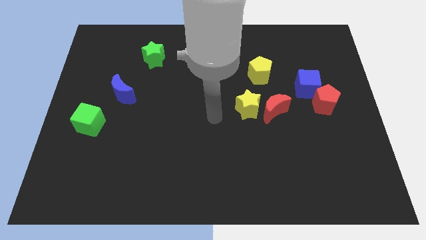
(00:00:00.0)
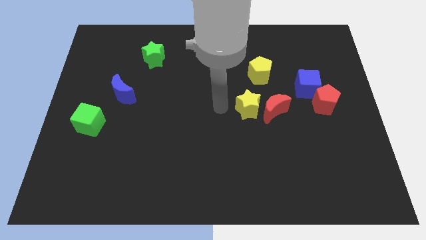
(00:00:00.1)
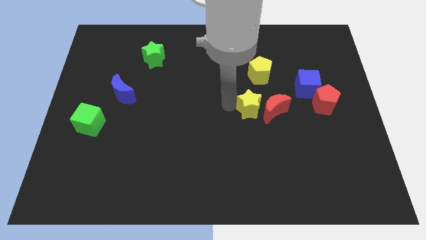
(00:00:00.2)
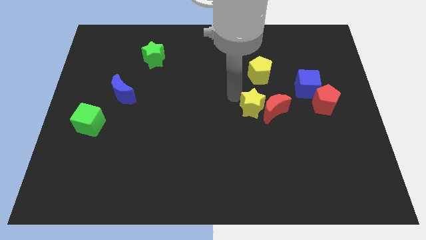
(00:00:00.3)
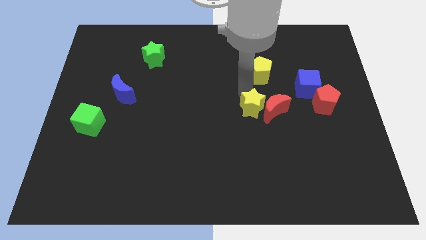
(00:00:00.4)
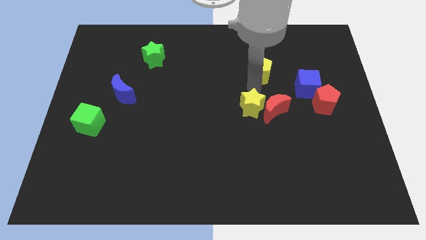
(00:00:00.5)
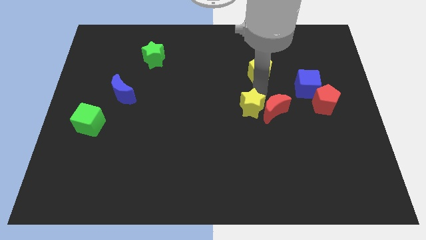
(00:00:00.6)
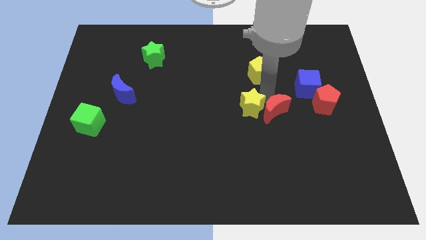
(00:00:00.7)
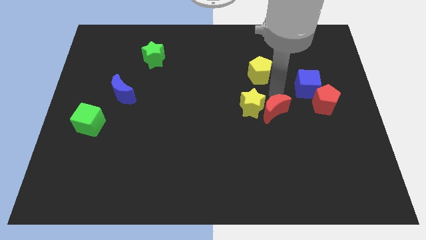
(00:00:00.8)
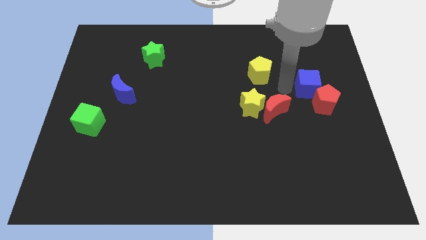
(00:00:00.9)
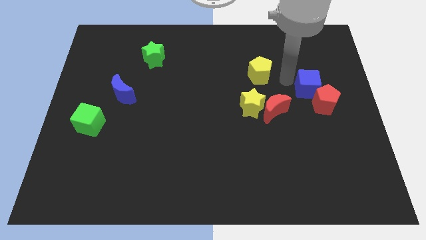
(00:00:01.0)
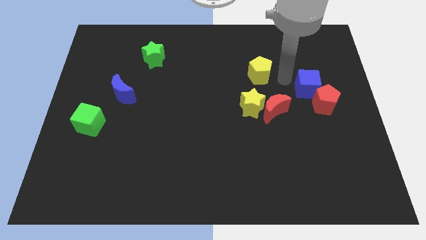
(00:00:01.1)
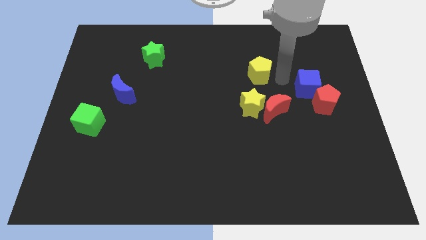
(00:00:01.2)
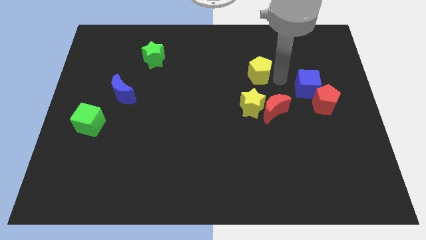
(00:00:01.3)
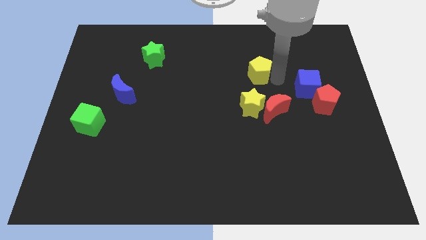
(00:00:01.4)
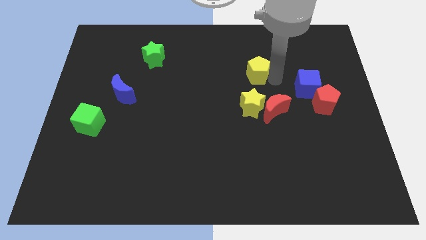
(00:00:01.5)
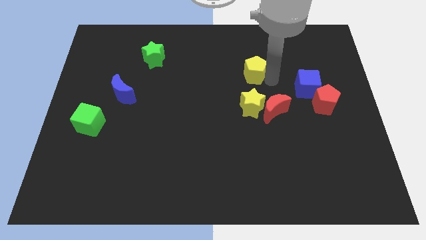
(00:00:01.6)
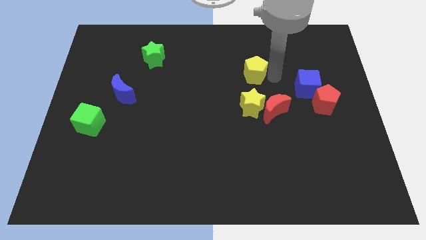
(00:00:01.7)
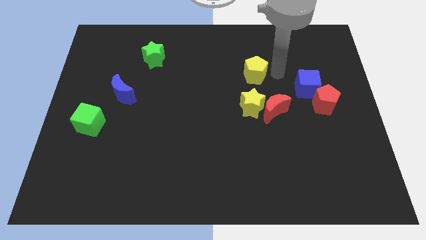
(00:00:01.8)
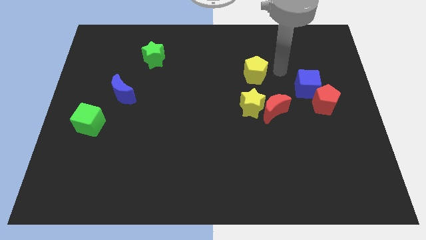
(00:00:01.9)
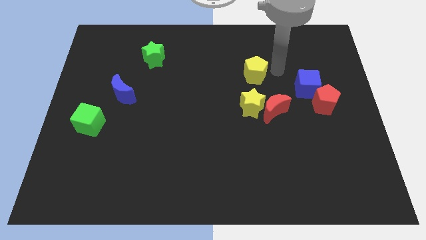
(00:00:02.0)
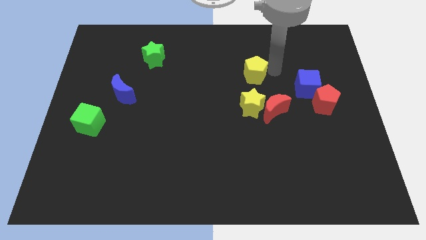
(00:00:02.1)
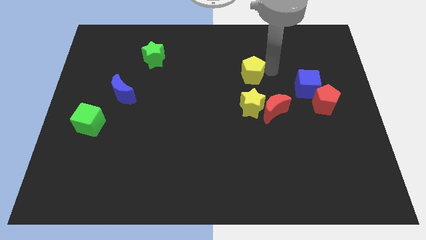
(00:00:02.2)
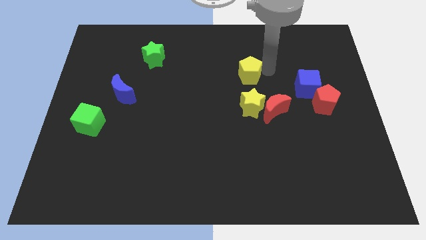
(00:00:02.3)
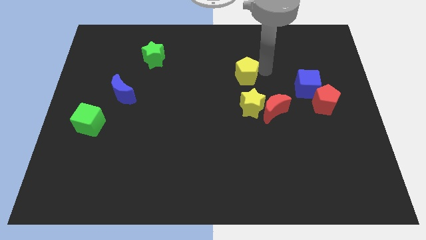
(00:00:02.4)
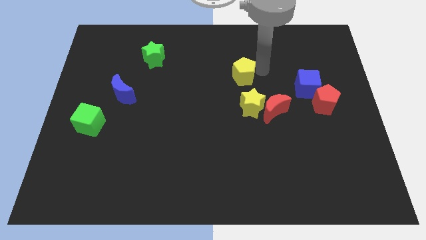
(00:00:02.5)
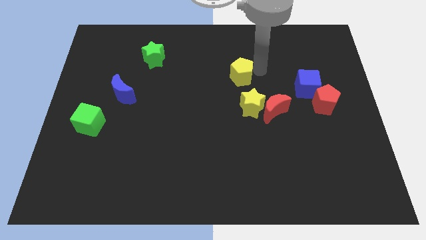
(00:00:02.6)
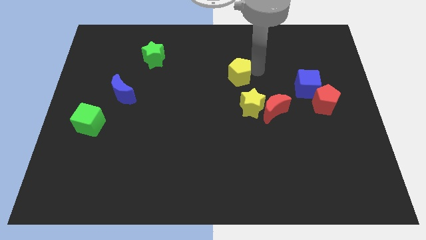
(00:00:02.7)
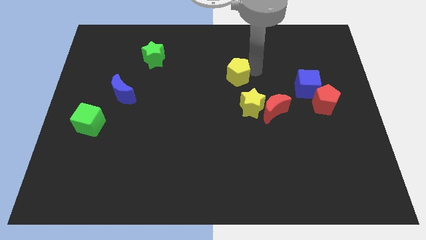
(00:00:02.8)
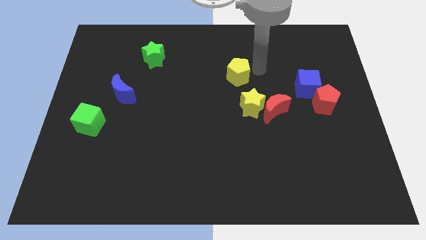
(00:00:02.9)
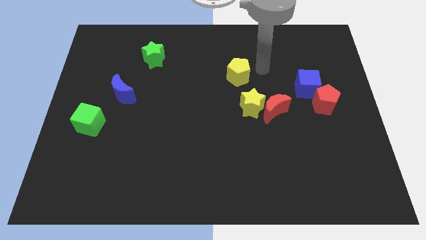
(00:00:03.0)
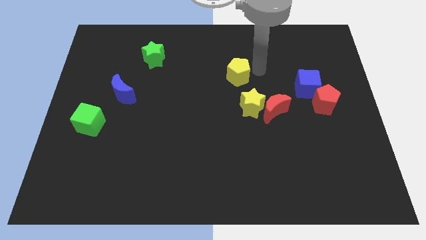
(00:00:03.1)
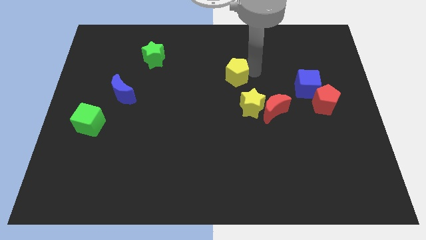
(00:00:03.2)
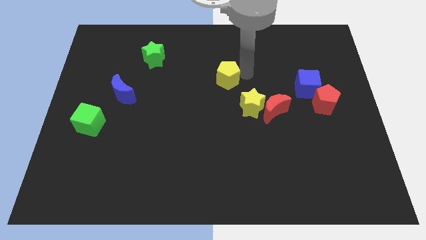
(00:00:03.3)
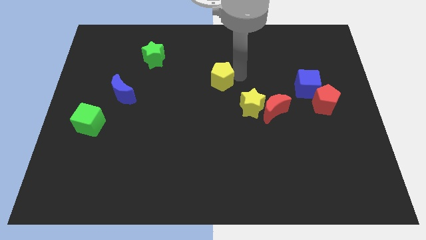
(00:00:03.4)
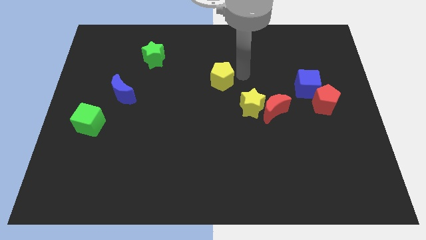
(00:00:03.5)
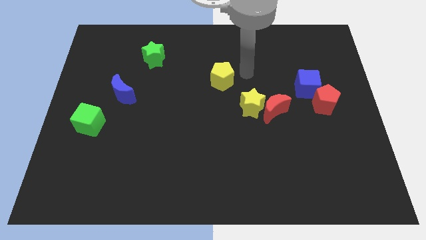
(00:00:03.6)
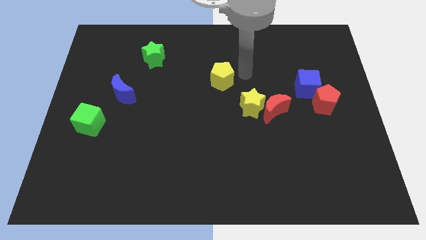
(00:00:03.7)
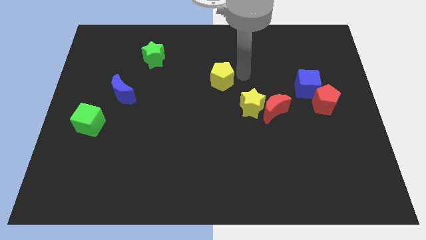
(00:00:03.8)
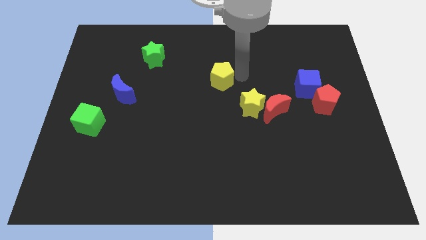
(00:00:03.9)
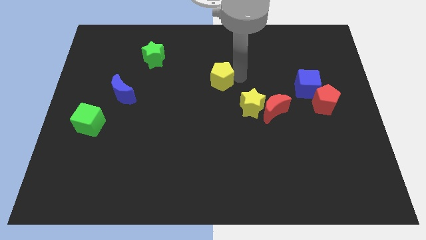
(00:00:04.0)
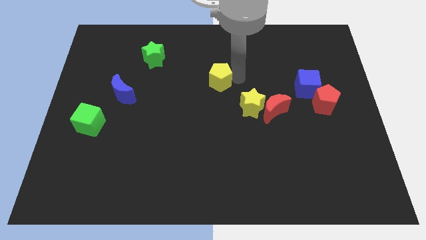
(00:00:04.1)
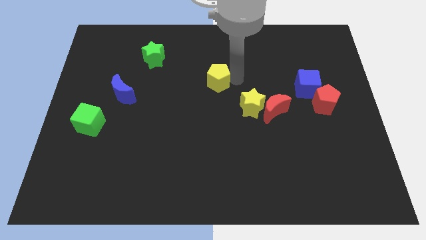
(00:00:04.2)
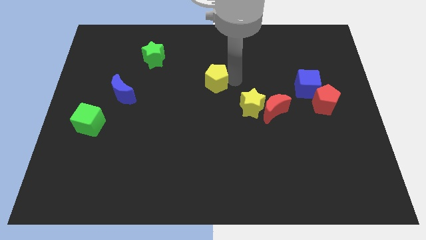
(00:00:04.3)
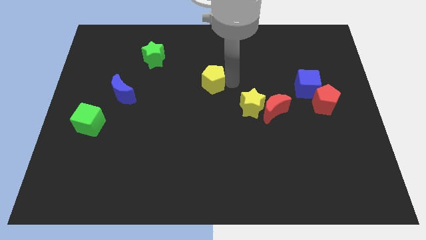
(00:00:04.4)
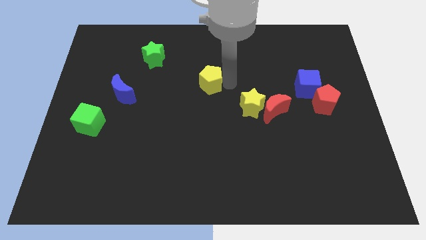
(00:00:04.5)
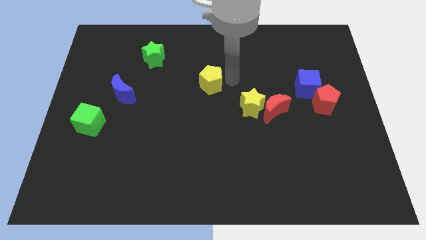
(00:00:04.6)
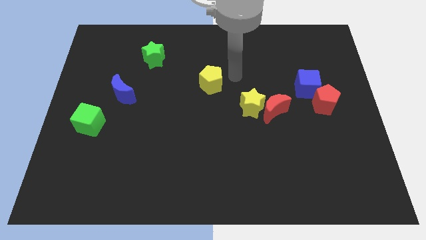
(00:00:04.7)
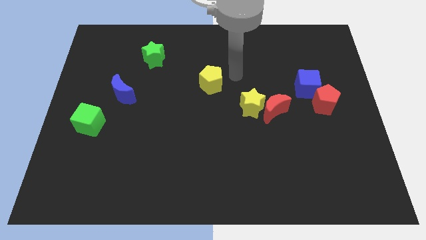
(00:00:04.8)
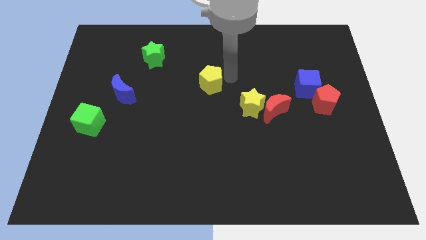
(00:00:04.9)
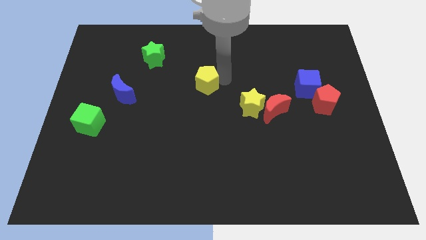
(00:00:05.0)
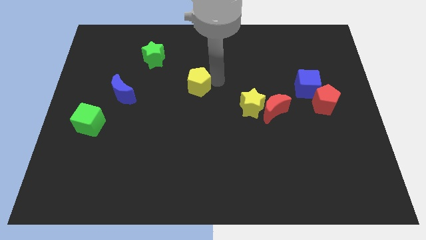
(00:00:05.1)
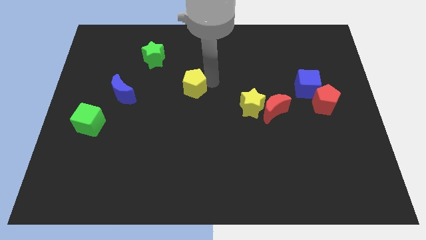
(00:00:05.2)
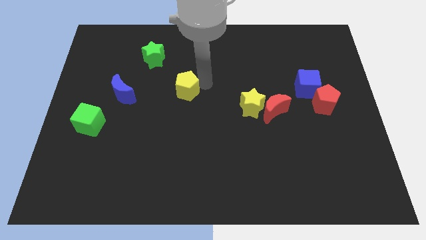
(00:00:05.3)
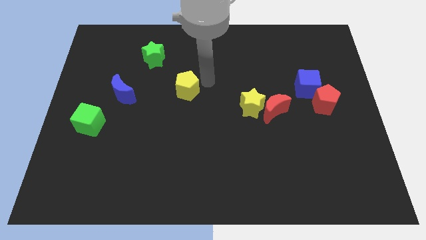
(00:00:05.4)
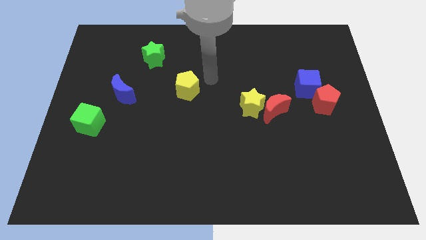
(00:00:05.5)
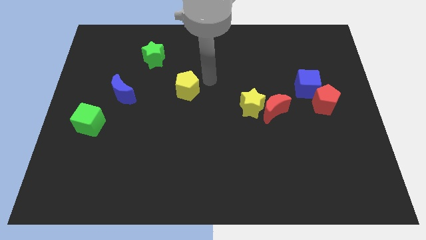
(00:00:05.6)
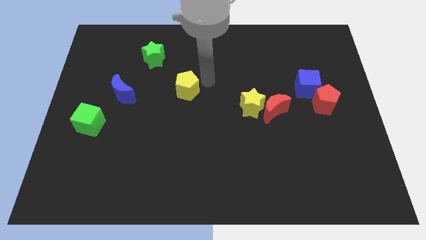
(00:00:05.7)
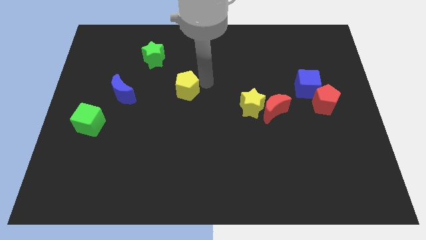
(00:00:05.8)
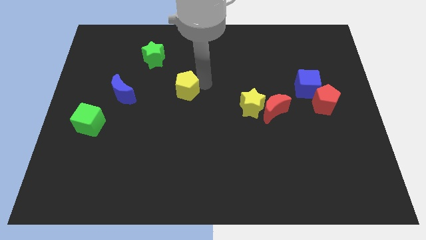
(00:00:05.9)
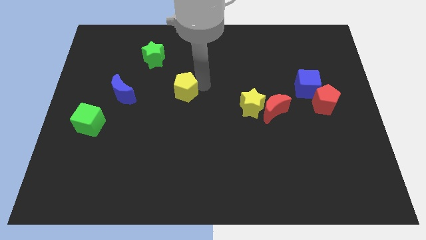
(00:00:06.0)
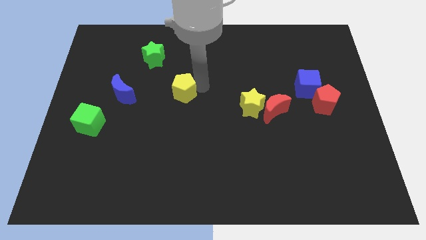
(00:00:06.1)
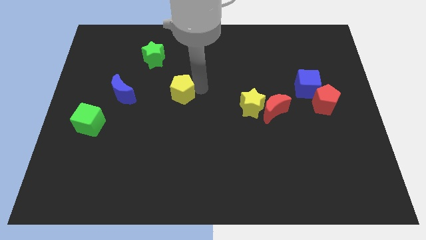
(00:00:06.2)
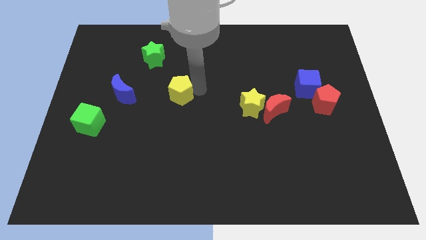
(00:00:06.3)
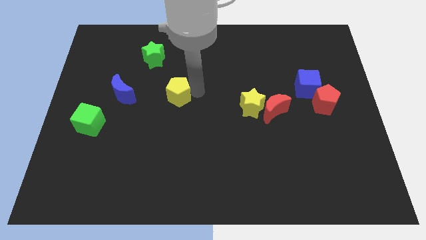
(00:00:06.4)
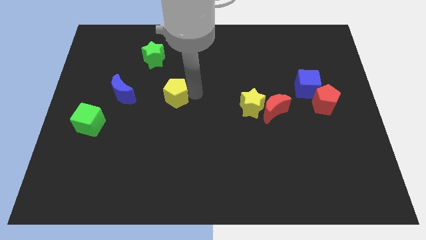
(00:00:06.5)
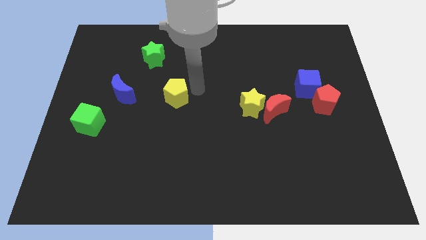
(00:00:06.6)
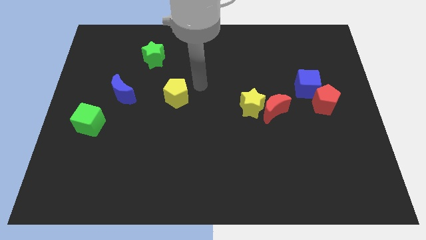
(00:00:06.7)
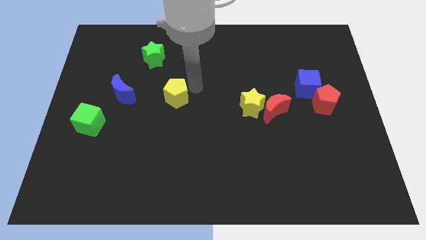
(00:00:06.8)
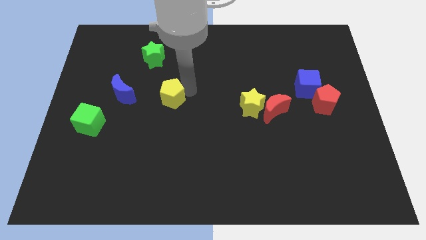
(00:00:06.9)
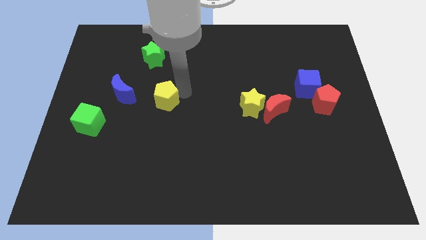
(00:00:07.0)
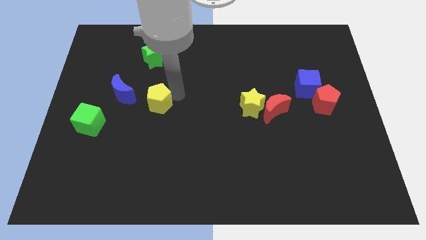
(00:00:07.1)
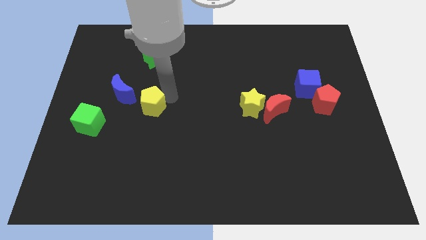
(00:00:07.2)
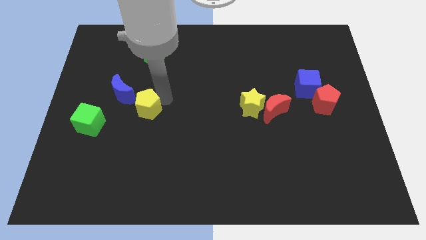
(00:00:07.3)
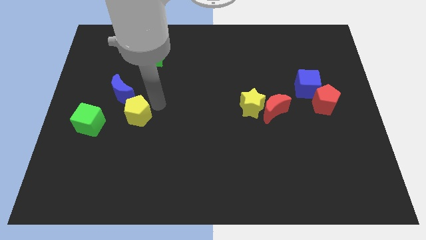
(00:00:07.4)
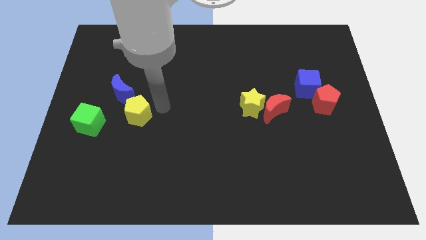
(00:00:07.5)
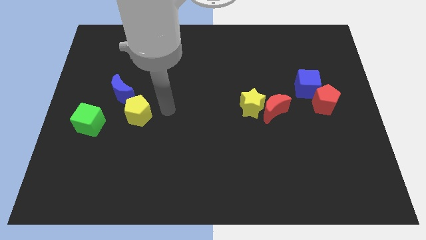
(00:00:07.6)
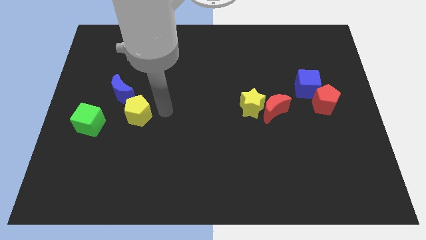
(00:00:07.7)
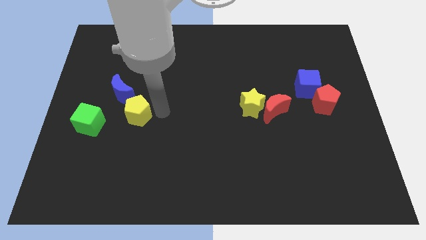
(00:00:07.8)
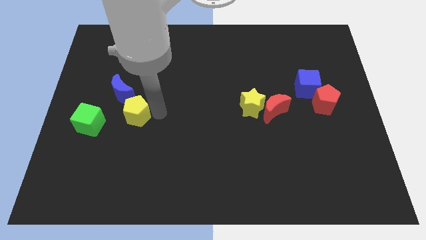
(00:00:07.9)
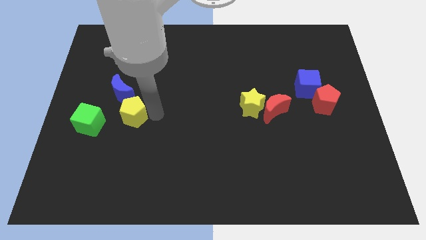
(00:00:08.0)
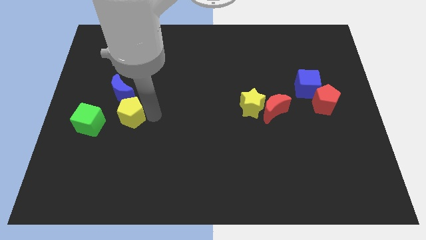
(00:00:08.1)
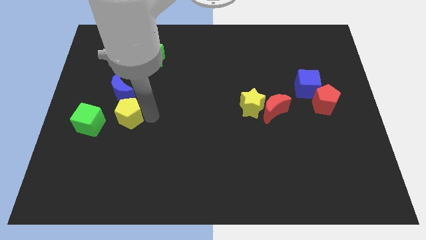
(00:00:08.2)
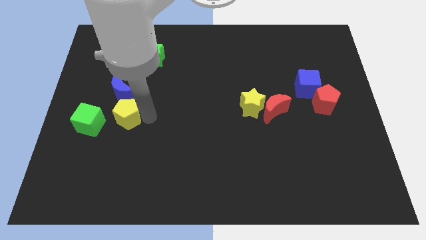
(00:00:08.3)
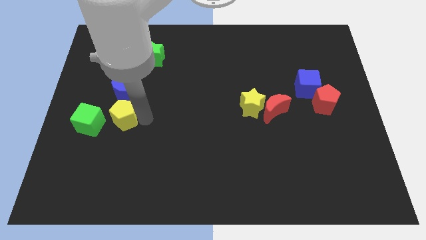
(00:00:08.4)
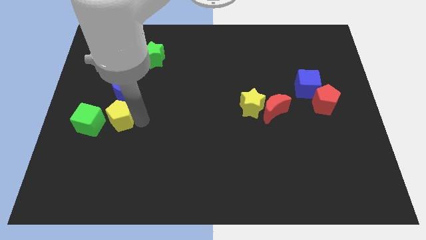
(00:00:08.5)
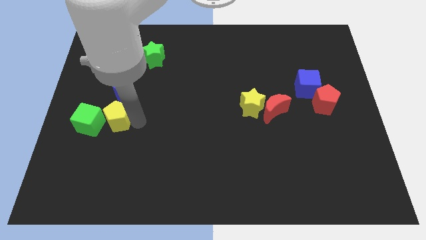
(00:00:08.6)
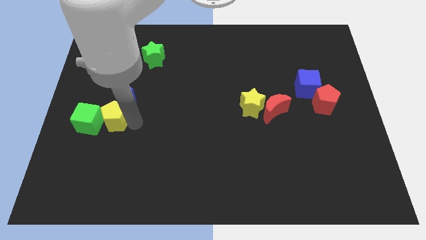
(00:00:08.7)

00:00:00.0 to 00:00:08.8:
slide the yellow pentagon next to the green cube
